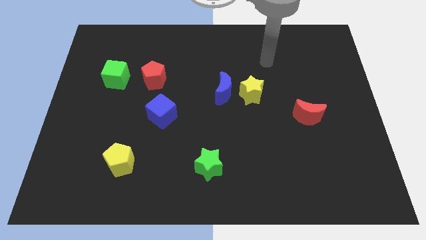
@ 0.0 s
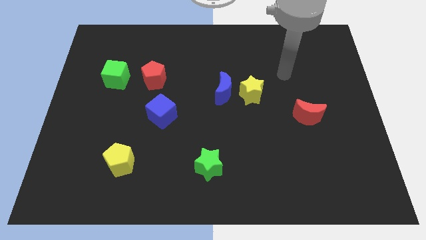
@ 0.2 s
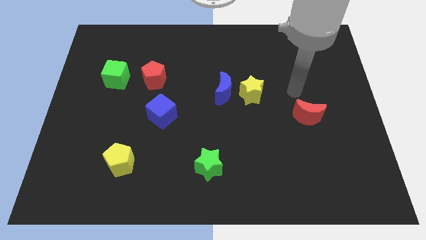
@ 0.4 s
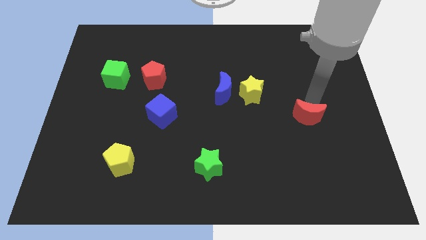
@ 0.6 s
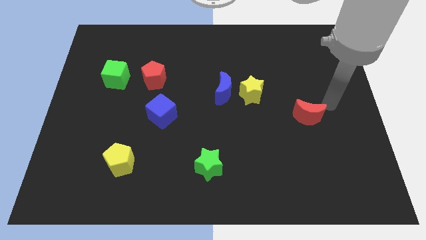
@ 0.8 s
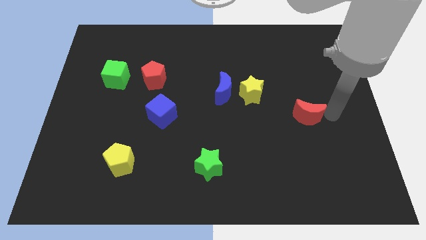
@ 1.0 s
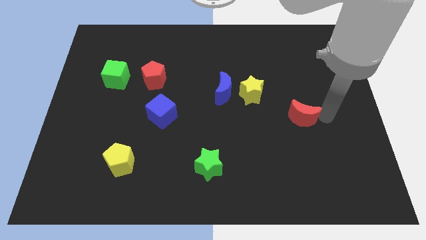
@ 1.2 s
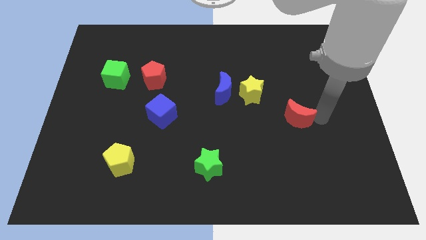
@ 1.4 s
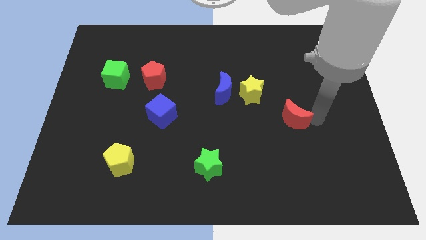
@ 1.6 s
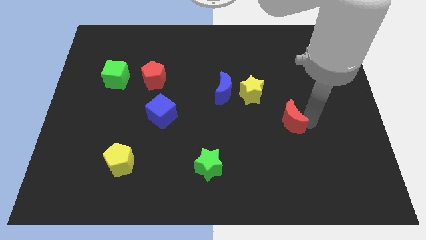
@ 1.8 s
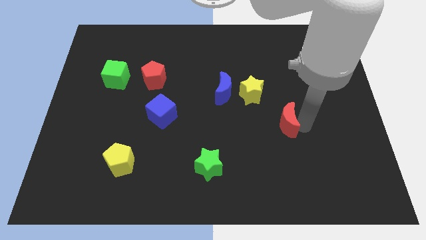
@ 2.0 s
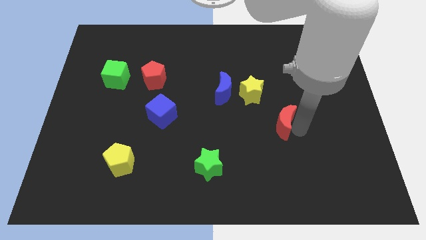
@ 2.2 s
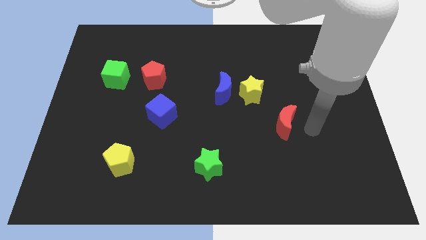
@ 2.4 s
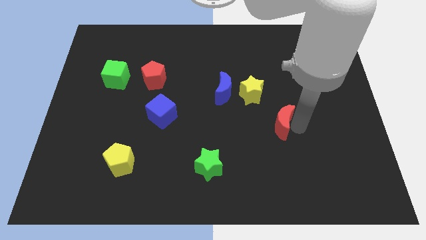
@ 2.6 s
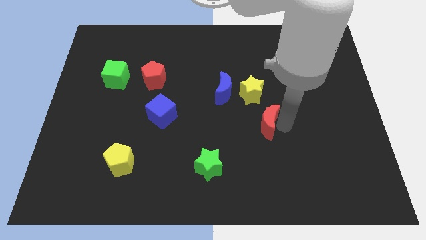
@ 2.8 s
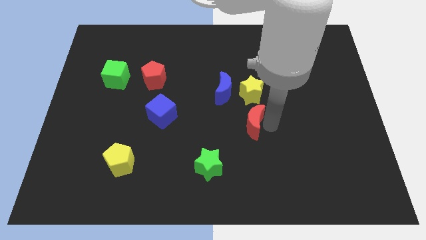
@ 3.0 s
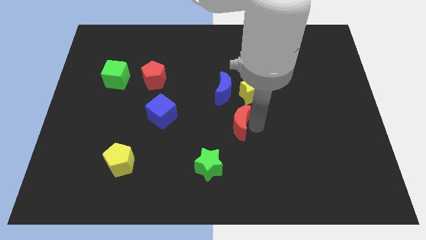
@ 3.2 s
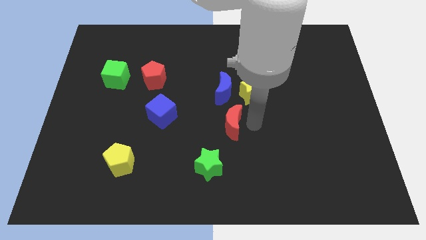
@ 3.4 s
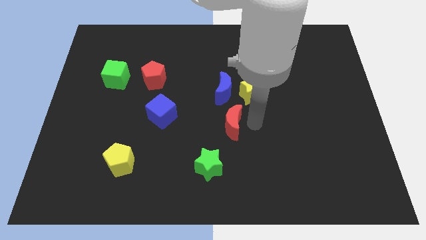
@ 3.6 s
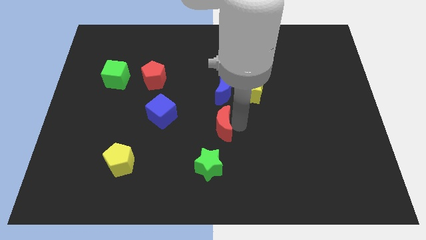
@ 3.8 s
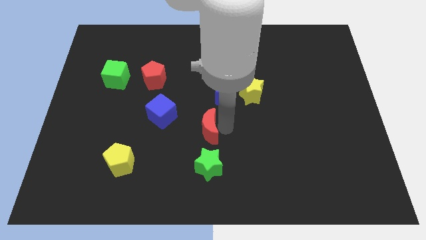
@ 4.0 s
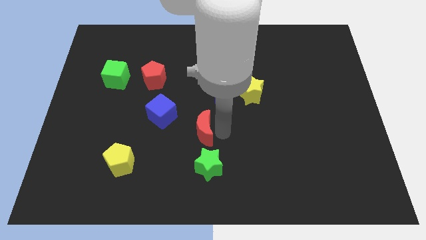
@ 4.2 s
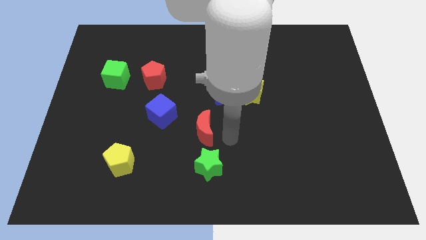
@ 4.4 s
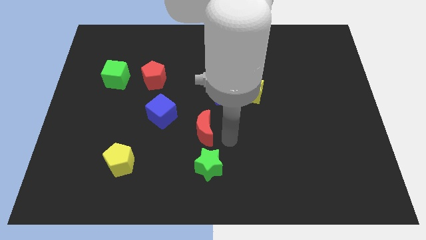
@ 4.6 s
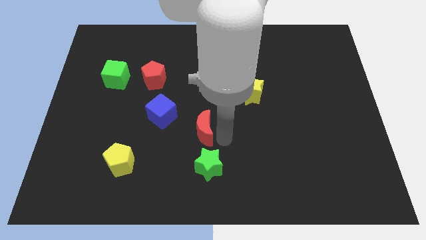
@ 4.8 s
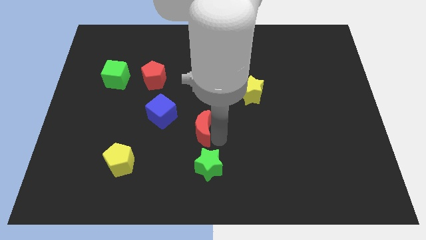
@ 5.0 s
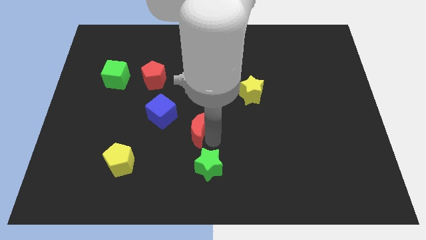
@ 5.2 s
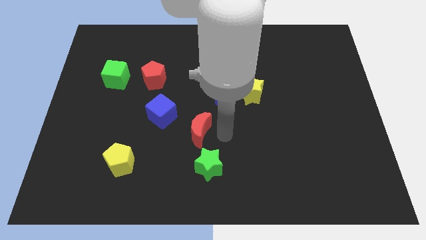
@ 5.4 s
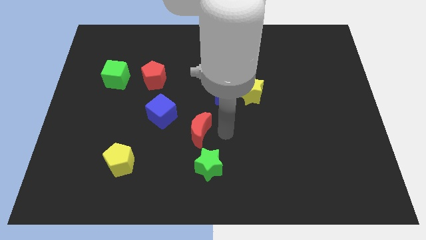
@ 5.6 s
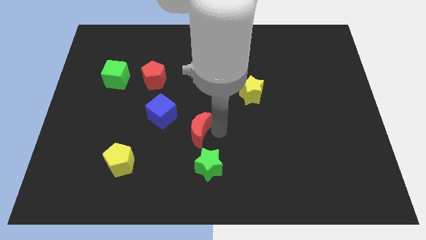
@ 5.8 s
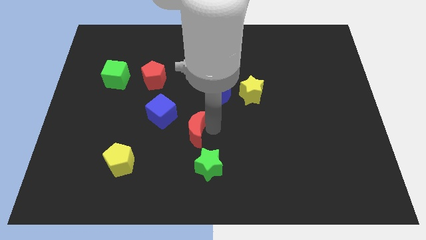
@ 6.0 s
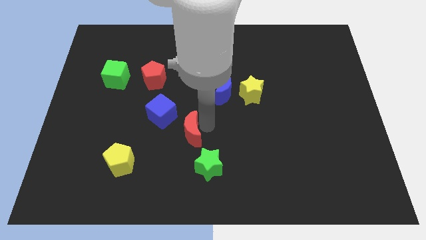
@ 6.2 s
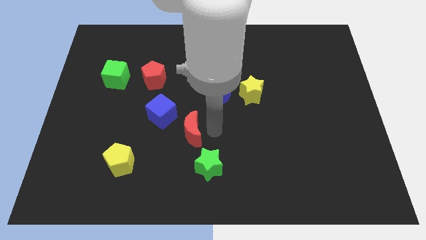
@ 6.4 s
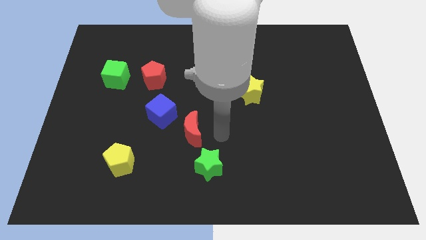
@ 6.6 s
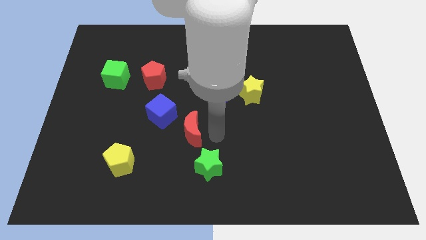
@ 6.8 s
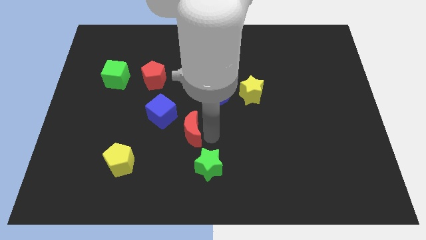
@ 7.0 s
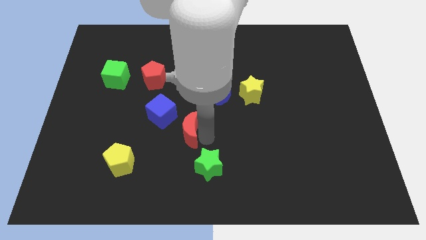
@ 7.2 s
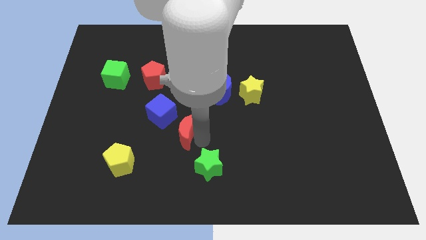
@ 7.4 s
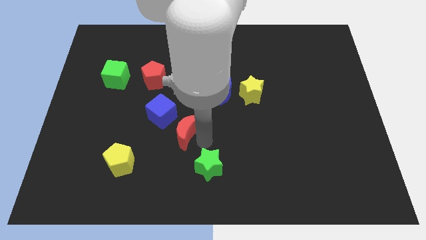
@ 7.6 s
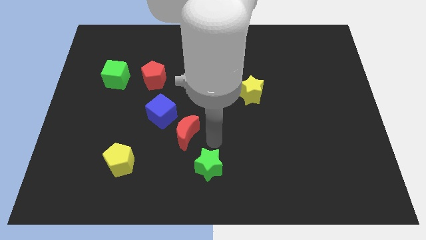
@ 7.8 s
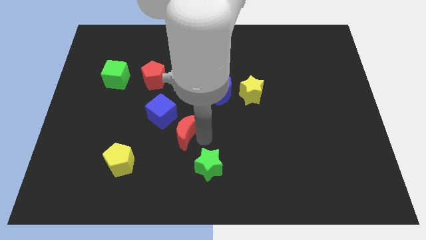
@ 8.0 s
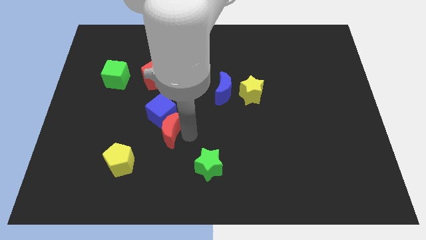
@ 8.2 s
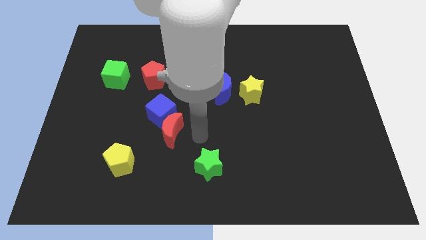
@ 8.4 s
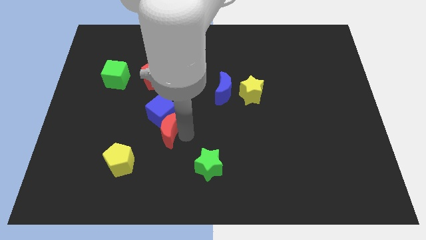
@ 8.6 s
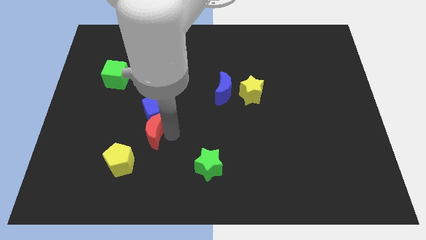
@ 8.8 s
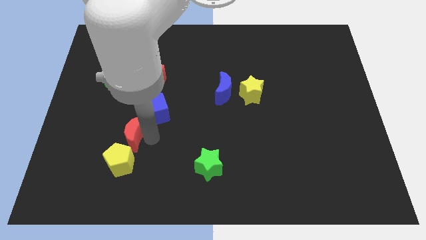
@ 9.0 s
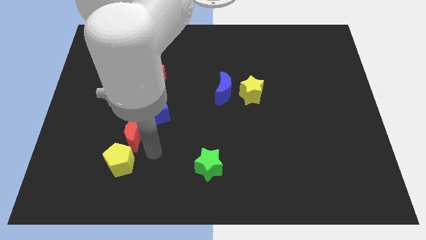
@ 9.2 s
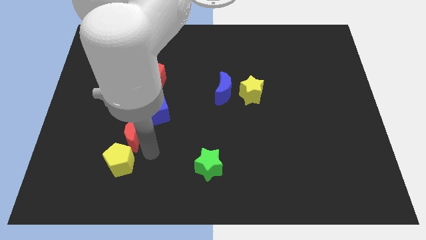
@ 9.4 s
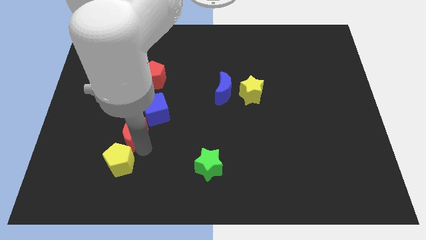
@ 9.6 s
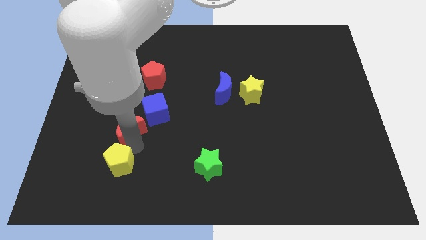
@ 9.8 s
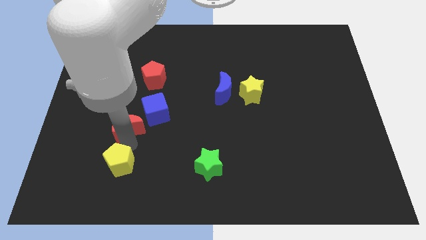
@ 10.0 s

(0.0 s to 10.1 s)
push the red moon just left of the blue cube

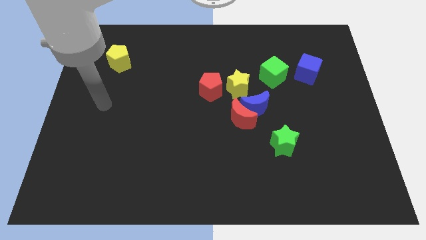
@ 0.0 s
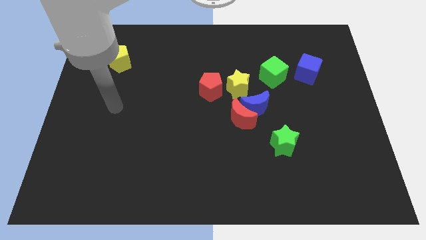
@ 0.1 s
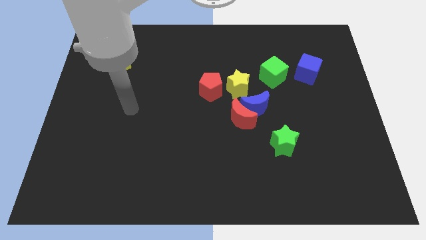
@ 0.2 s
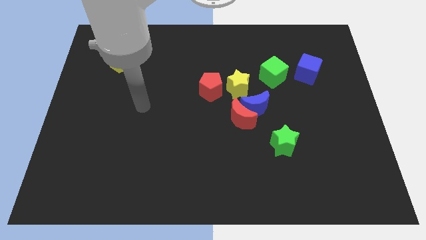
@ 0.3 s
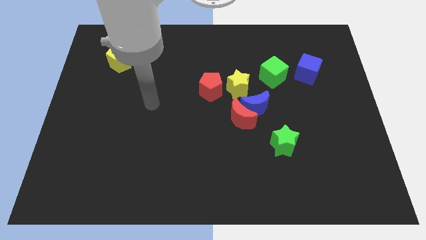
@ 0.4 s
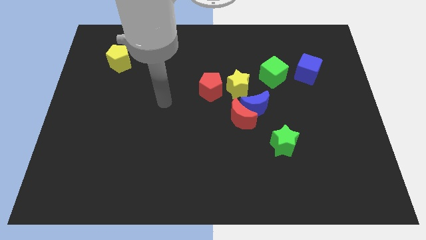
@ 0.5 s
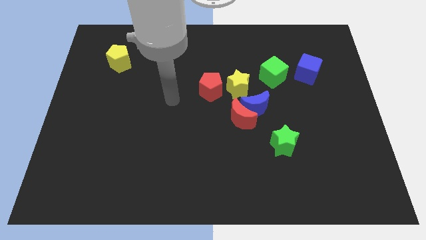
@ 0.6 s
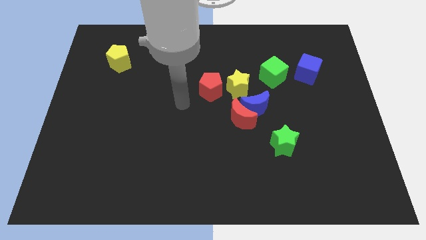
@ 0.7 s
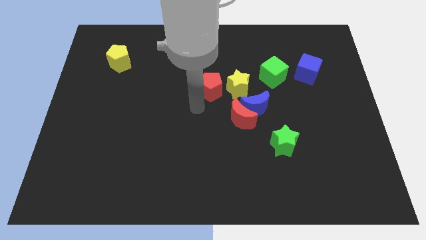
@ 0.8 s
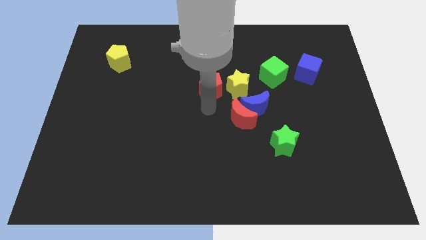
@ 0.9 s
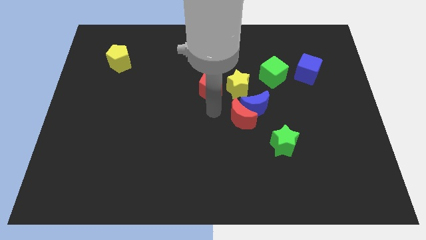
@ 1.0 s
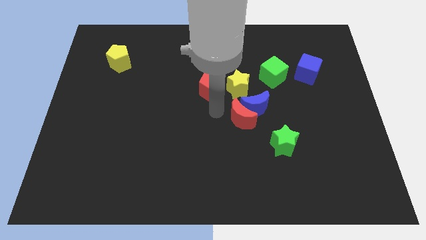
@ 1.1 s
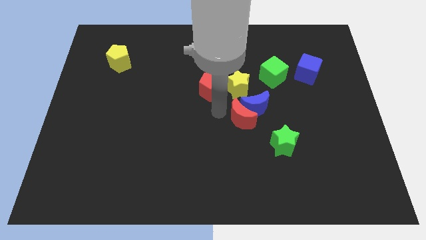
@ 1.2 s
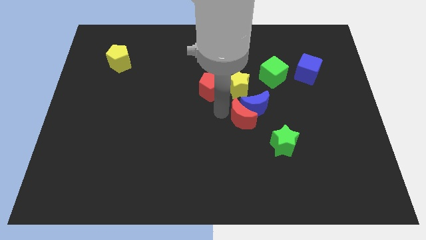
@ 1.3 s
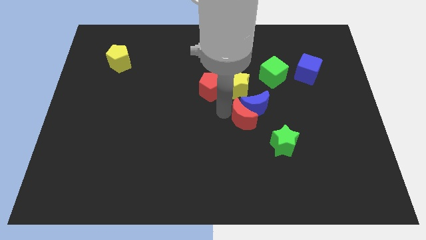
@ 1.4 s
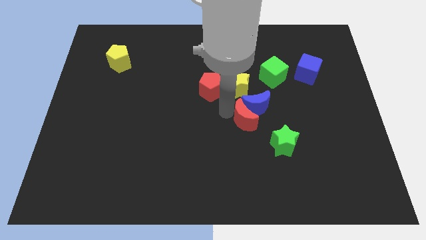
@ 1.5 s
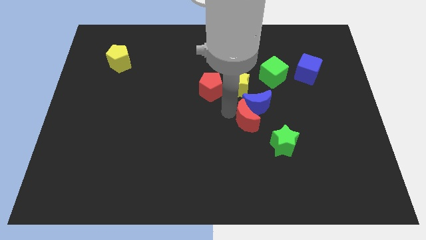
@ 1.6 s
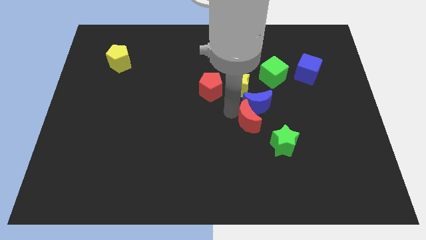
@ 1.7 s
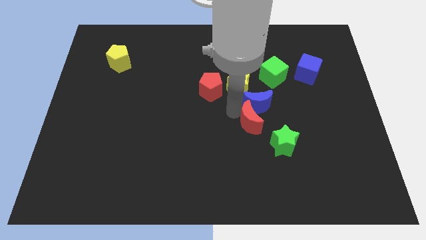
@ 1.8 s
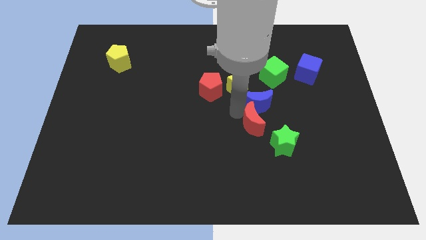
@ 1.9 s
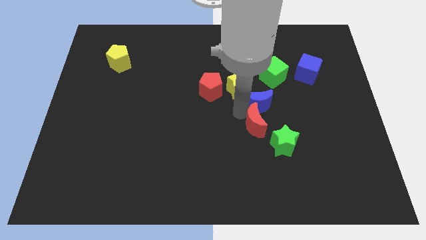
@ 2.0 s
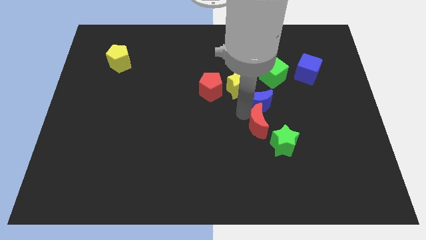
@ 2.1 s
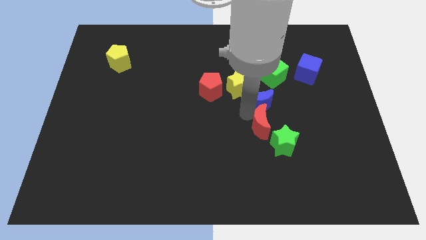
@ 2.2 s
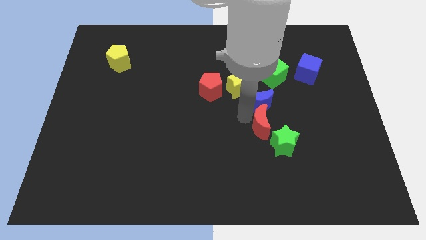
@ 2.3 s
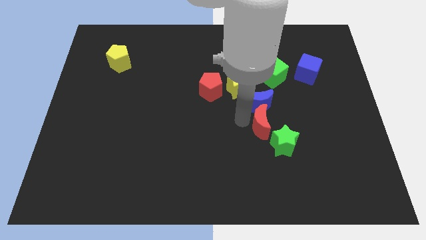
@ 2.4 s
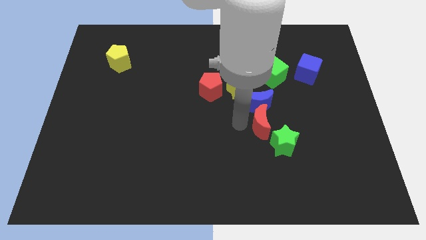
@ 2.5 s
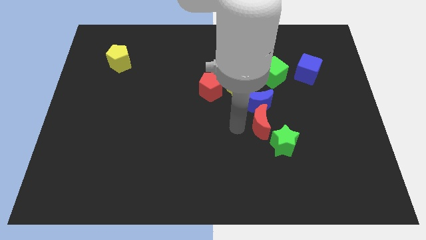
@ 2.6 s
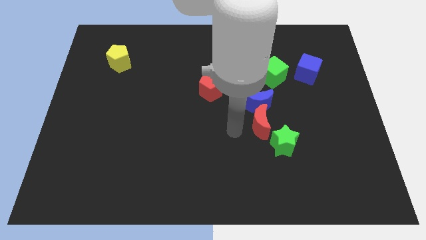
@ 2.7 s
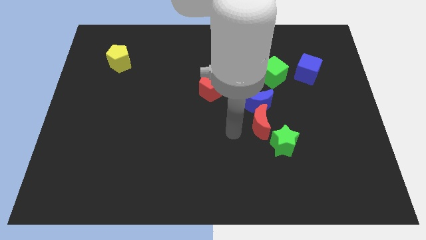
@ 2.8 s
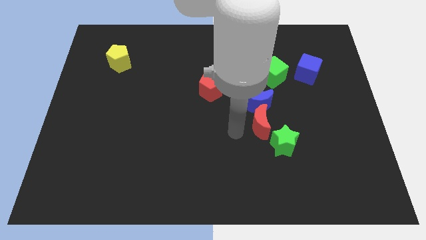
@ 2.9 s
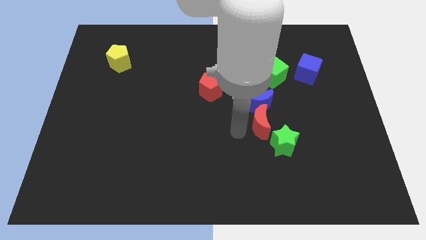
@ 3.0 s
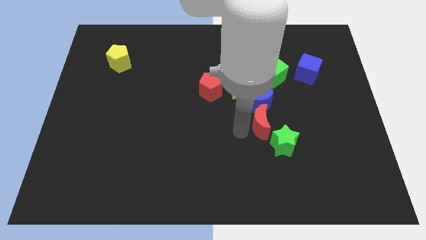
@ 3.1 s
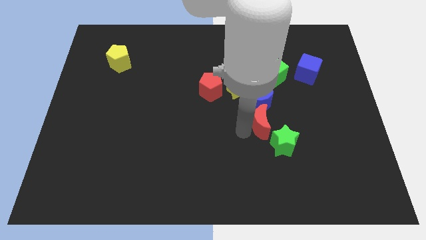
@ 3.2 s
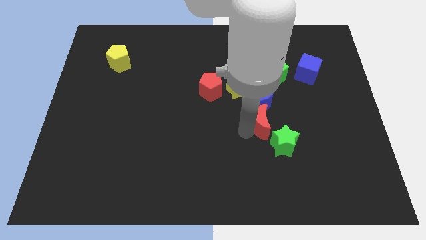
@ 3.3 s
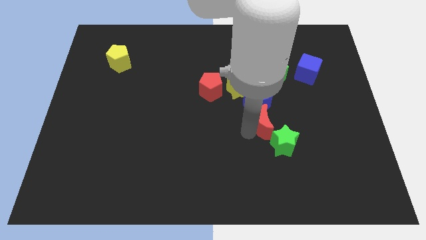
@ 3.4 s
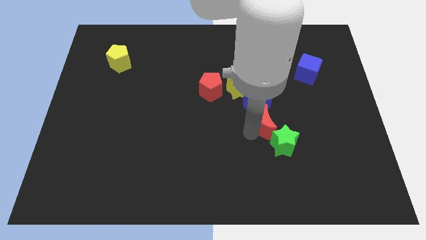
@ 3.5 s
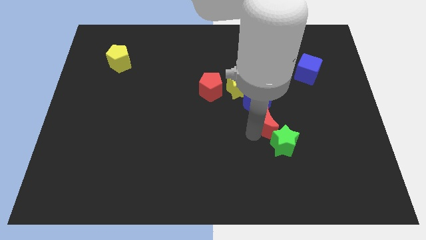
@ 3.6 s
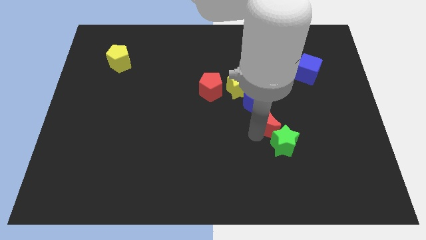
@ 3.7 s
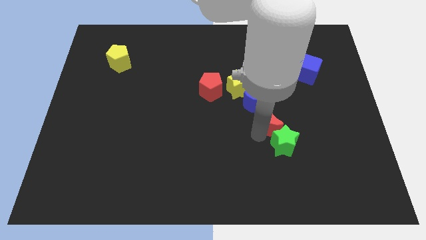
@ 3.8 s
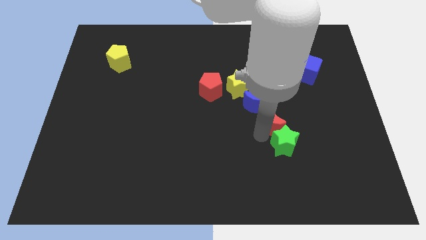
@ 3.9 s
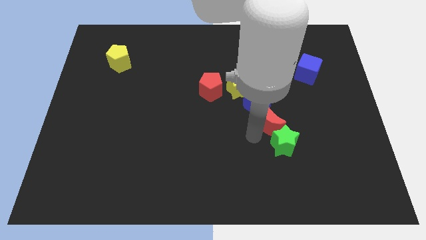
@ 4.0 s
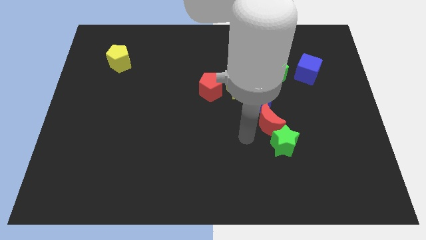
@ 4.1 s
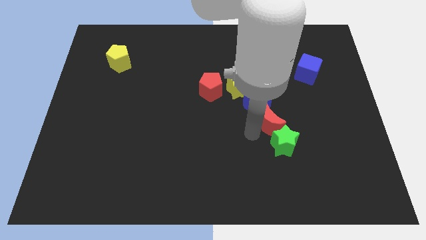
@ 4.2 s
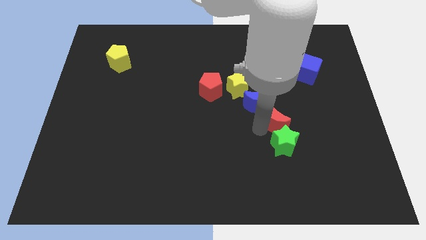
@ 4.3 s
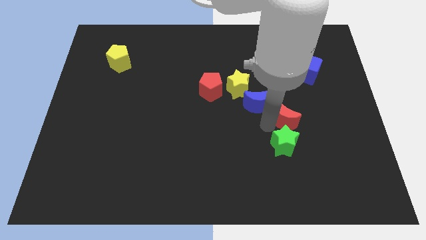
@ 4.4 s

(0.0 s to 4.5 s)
slide the red moon to the right side of the blue moon
